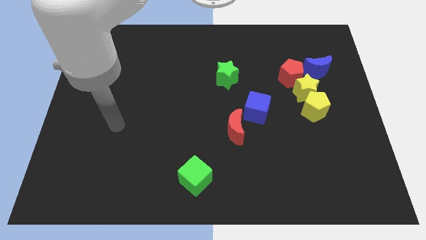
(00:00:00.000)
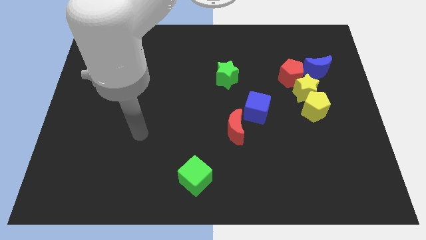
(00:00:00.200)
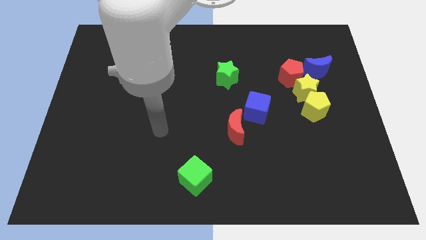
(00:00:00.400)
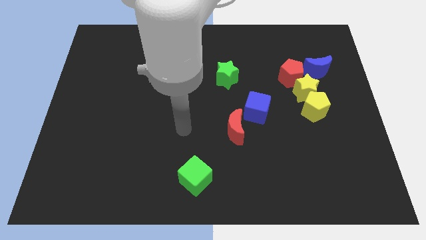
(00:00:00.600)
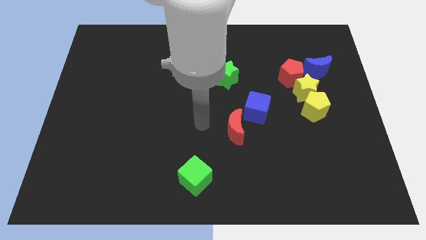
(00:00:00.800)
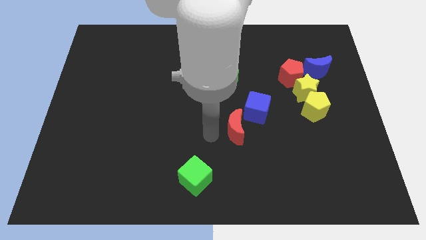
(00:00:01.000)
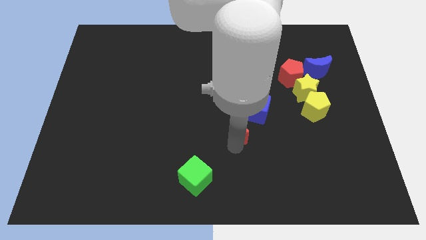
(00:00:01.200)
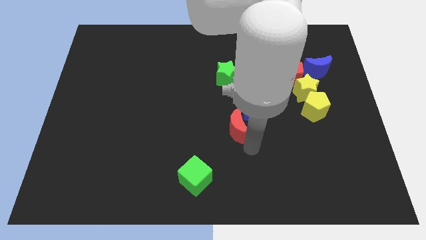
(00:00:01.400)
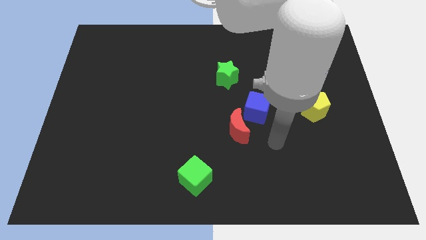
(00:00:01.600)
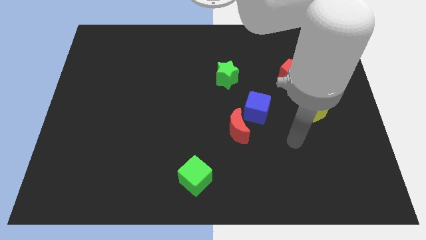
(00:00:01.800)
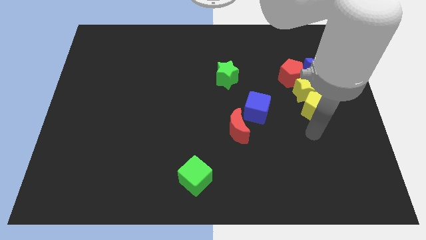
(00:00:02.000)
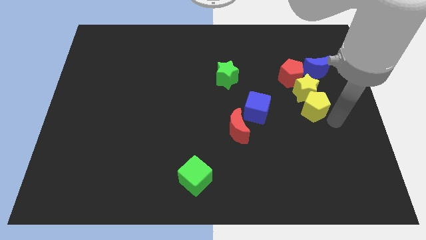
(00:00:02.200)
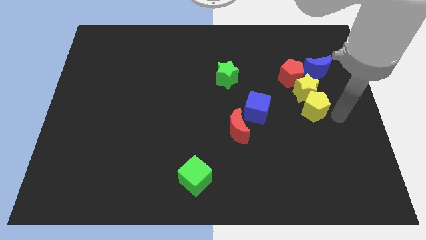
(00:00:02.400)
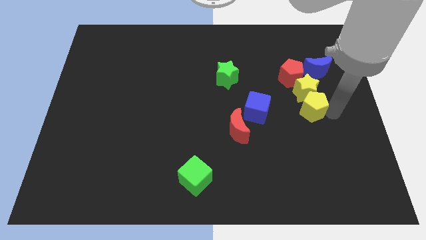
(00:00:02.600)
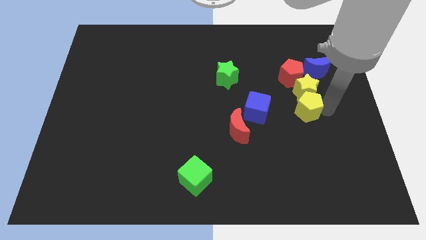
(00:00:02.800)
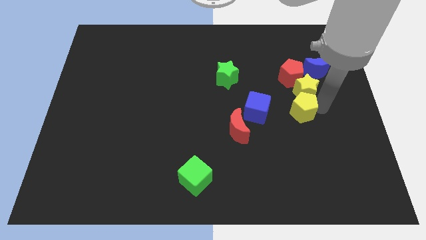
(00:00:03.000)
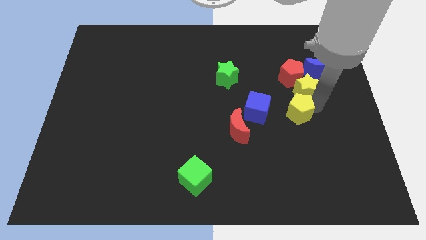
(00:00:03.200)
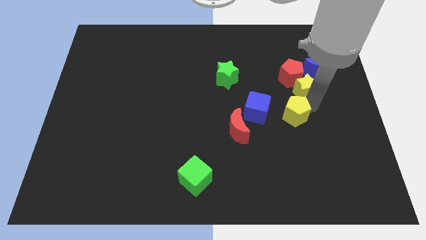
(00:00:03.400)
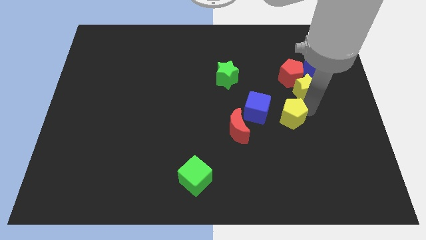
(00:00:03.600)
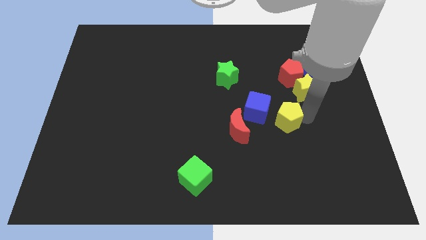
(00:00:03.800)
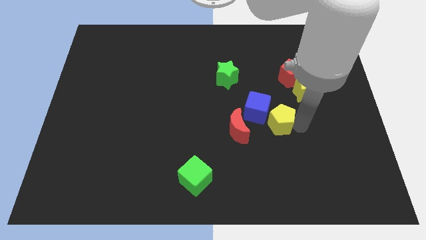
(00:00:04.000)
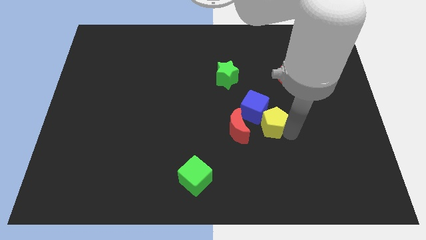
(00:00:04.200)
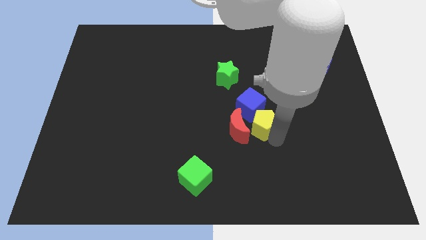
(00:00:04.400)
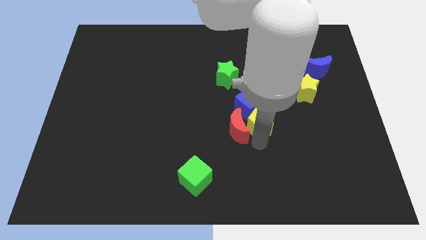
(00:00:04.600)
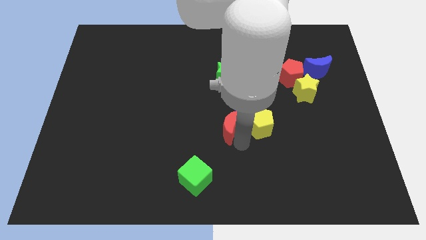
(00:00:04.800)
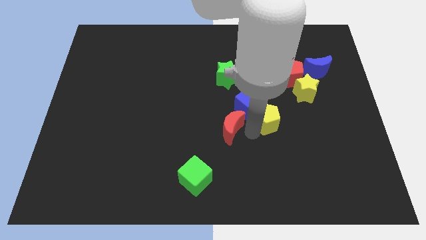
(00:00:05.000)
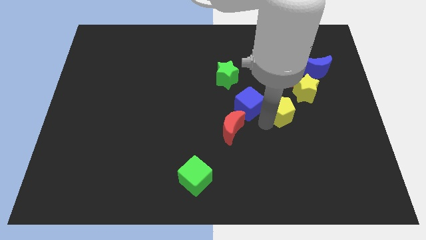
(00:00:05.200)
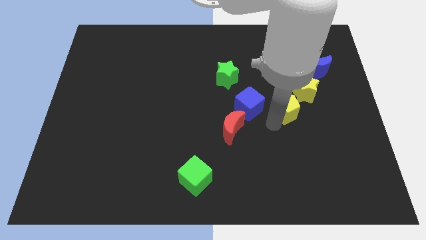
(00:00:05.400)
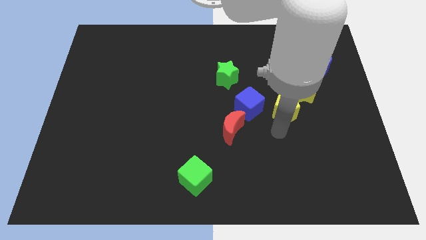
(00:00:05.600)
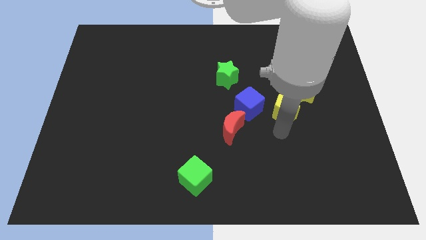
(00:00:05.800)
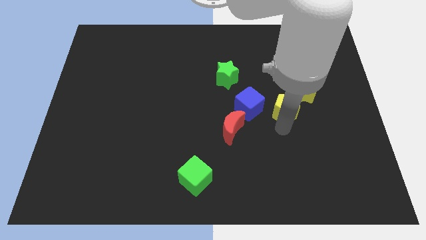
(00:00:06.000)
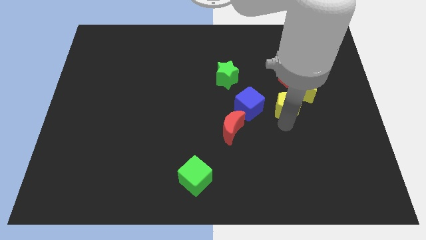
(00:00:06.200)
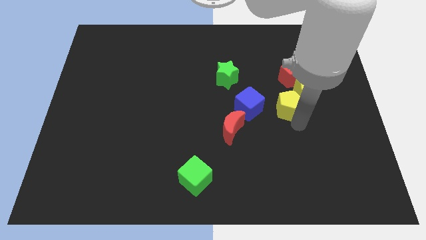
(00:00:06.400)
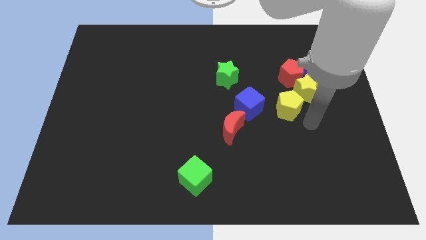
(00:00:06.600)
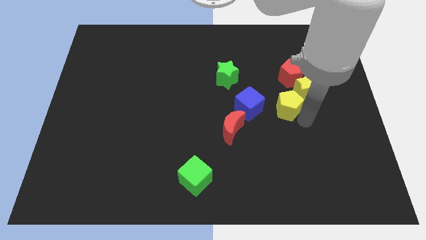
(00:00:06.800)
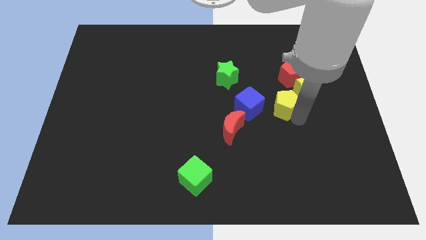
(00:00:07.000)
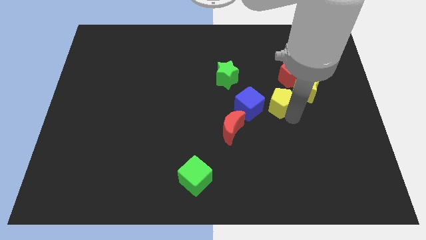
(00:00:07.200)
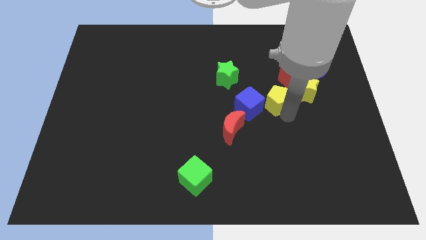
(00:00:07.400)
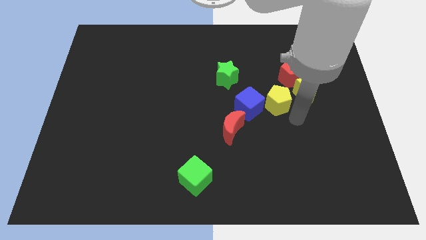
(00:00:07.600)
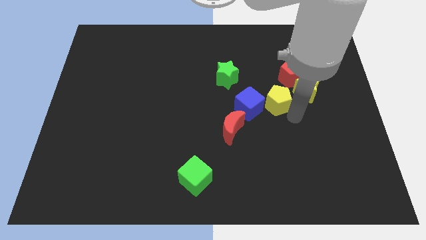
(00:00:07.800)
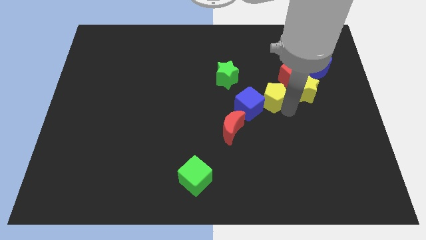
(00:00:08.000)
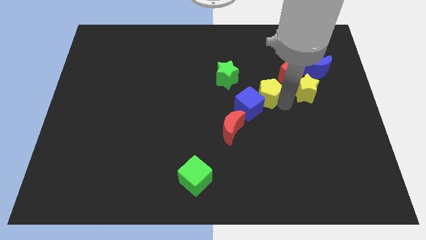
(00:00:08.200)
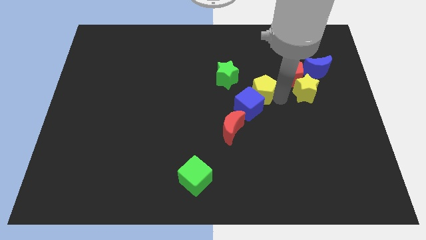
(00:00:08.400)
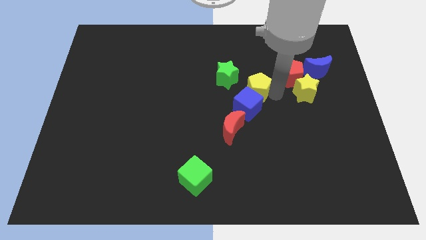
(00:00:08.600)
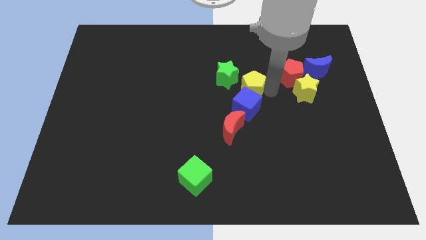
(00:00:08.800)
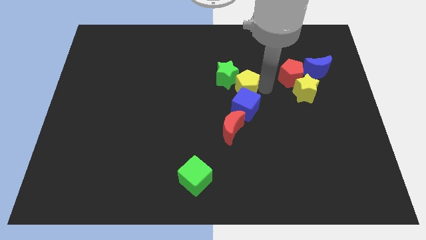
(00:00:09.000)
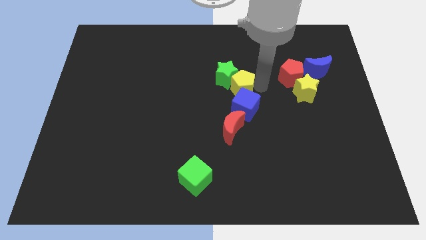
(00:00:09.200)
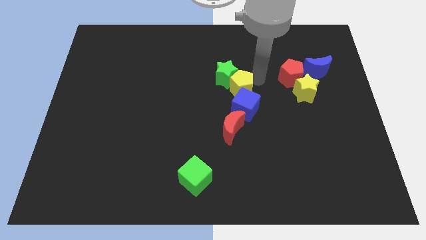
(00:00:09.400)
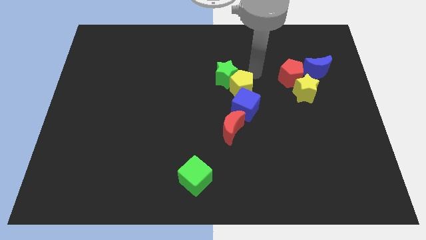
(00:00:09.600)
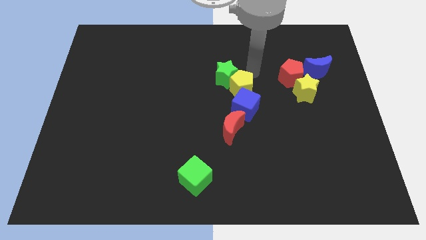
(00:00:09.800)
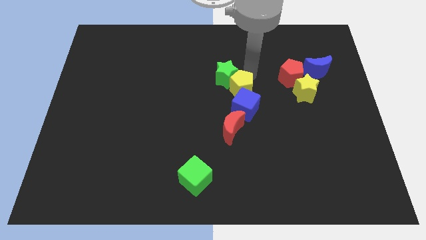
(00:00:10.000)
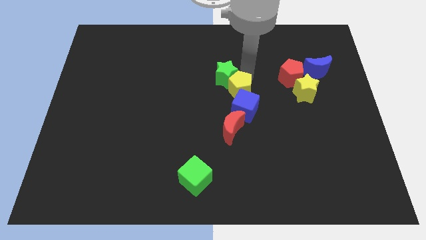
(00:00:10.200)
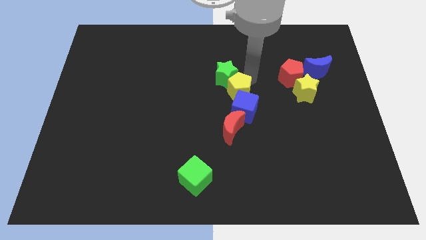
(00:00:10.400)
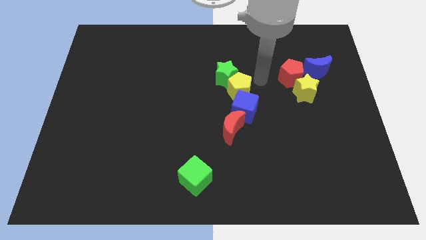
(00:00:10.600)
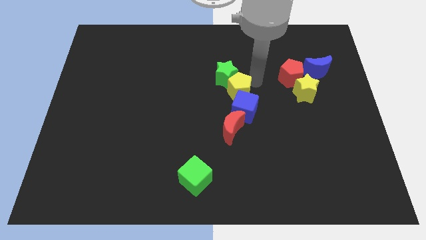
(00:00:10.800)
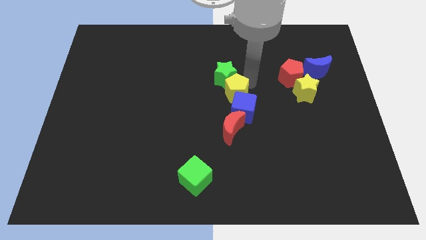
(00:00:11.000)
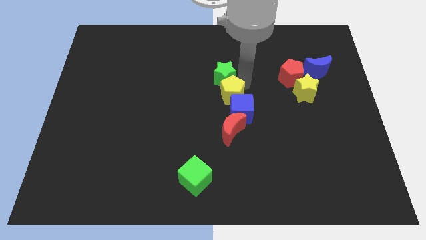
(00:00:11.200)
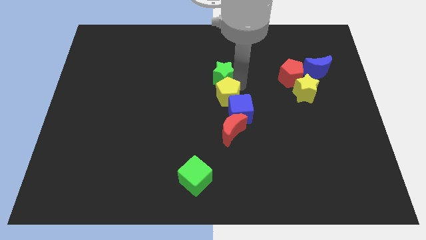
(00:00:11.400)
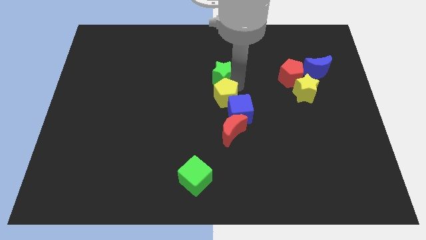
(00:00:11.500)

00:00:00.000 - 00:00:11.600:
push the yellow pentagon left

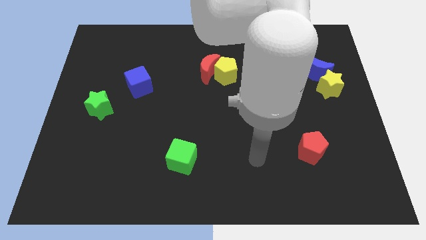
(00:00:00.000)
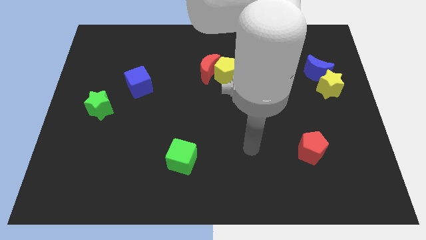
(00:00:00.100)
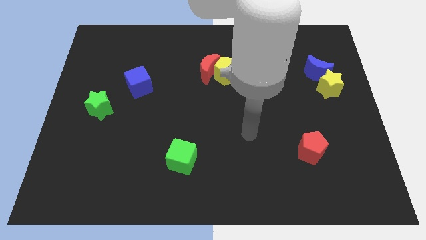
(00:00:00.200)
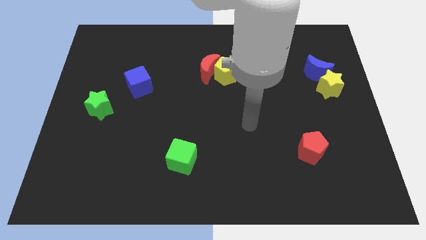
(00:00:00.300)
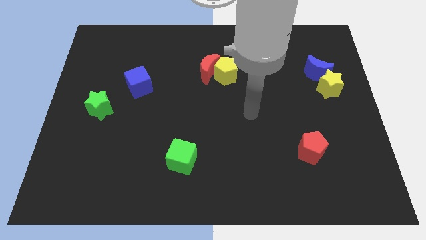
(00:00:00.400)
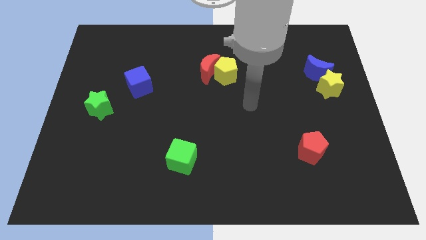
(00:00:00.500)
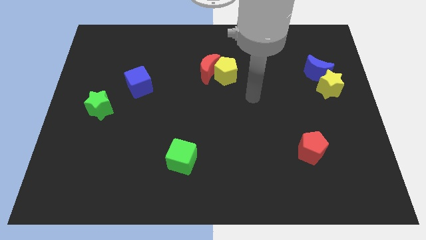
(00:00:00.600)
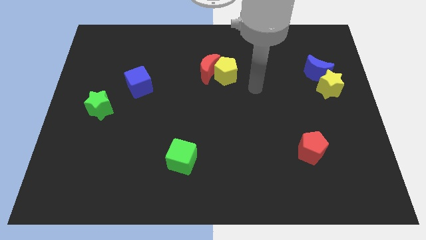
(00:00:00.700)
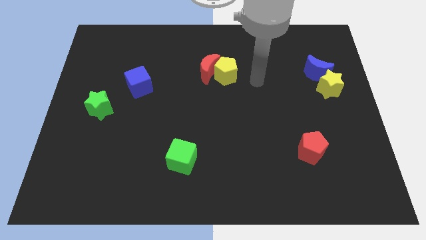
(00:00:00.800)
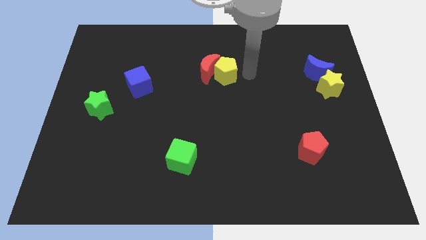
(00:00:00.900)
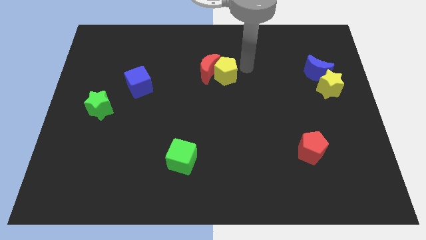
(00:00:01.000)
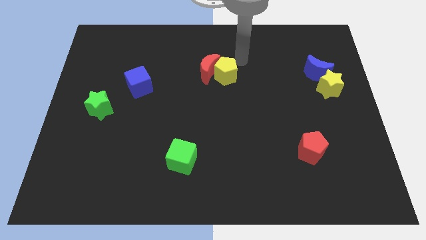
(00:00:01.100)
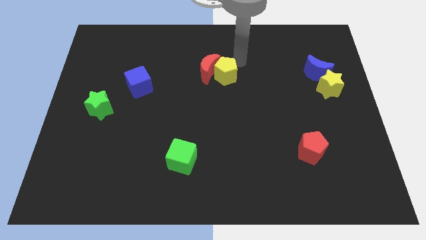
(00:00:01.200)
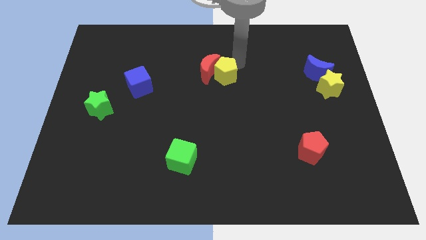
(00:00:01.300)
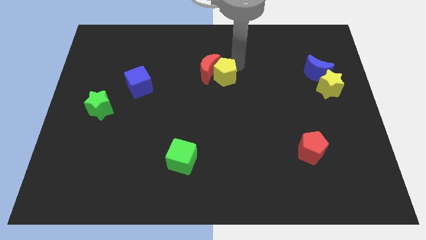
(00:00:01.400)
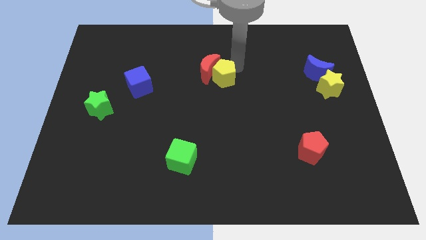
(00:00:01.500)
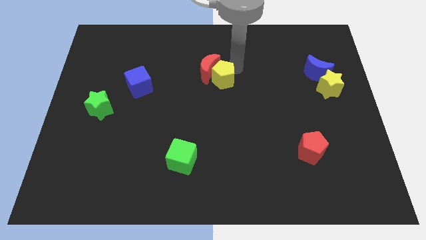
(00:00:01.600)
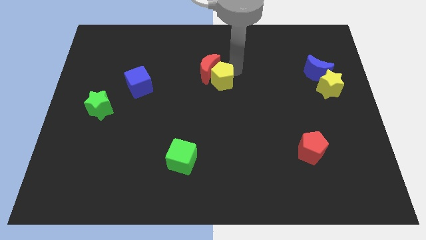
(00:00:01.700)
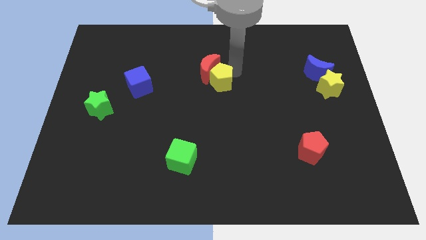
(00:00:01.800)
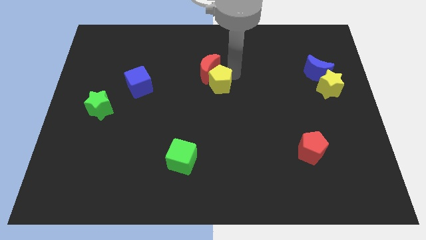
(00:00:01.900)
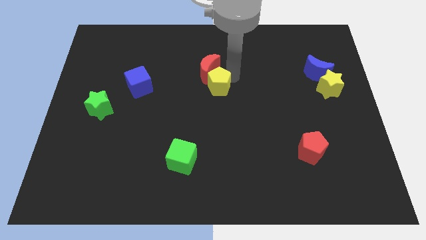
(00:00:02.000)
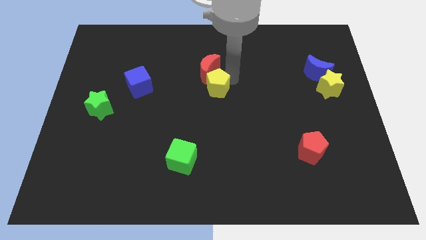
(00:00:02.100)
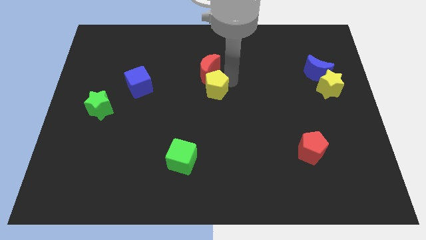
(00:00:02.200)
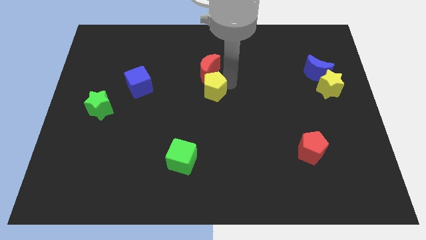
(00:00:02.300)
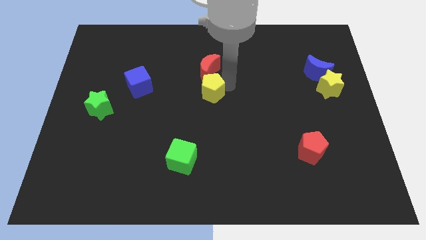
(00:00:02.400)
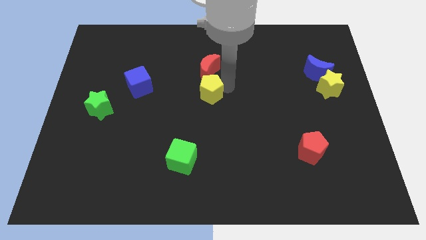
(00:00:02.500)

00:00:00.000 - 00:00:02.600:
slightly push the yellow pentagon down and left
